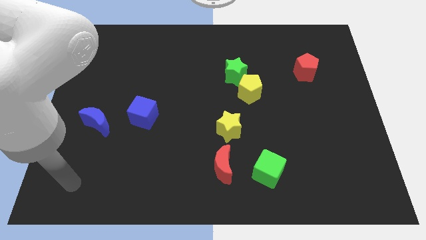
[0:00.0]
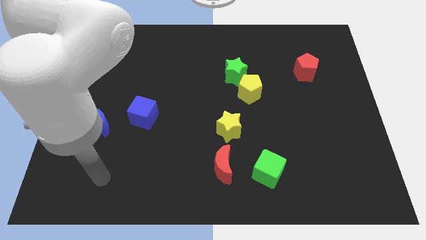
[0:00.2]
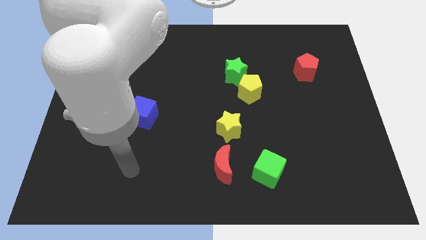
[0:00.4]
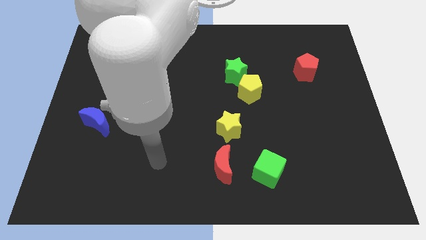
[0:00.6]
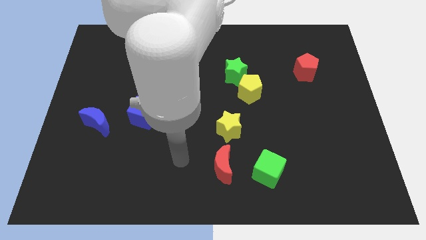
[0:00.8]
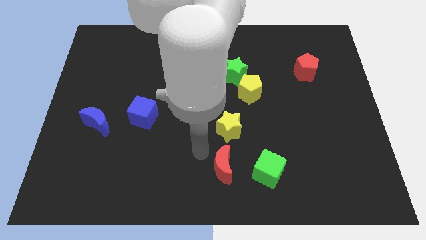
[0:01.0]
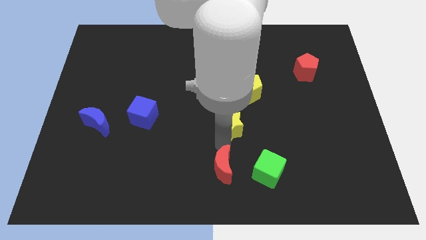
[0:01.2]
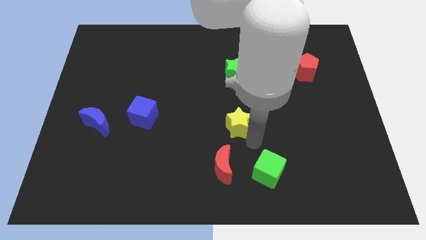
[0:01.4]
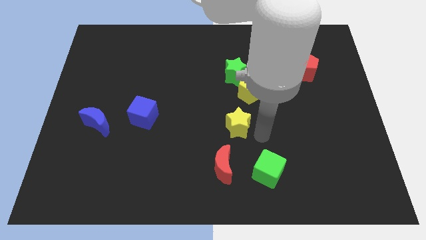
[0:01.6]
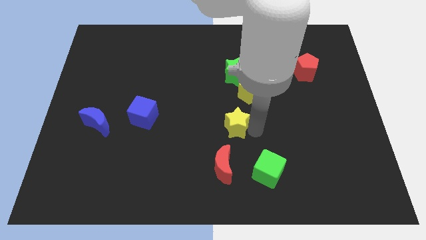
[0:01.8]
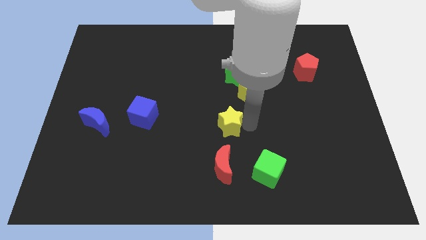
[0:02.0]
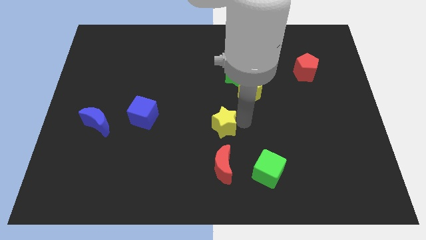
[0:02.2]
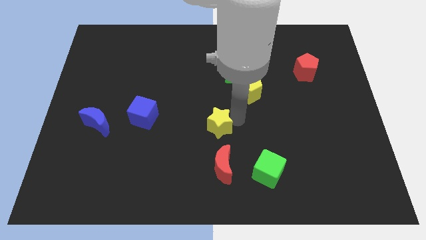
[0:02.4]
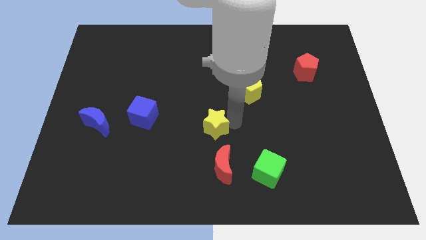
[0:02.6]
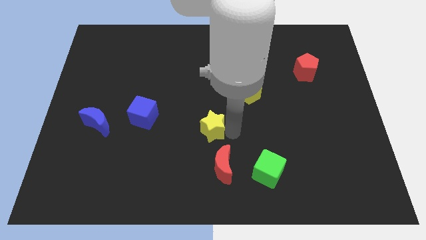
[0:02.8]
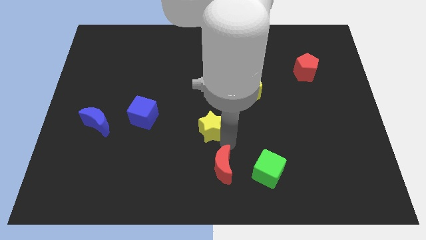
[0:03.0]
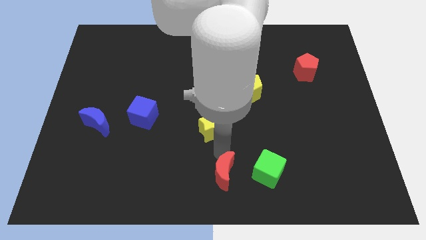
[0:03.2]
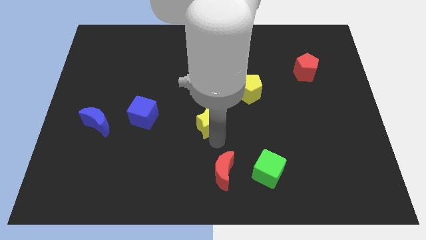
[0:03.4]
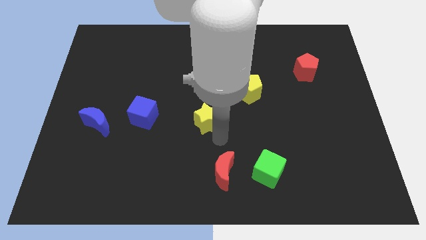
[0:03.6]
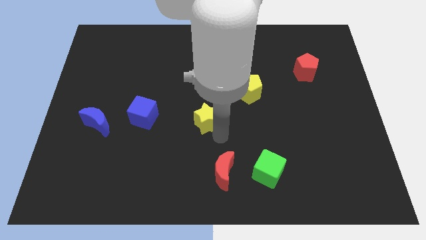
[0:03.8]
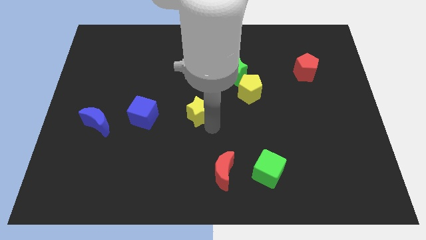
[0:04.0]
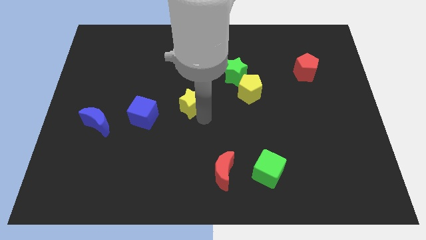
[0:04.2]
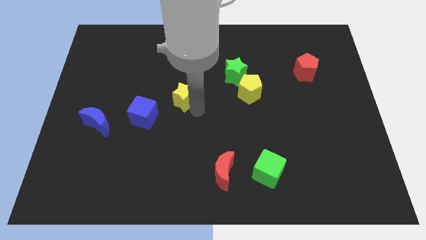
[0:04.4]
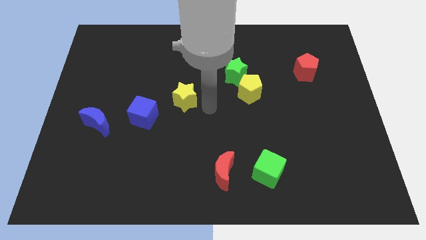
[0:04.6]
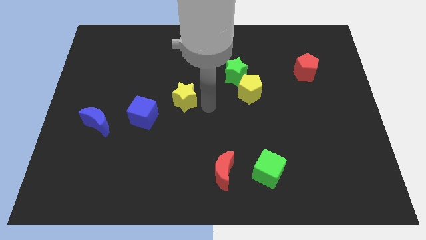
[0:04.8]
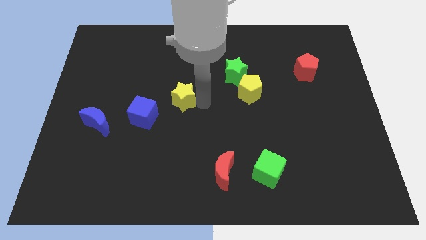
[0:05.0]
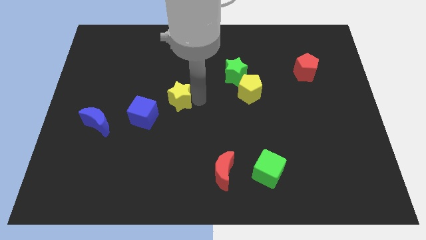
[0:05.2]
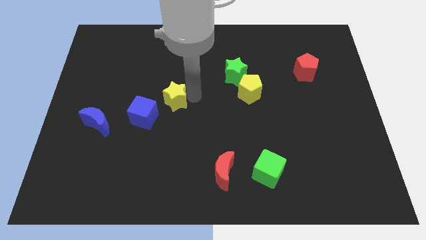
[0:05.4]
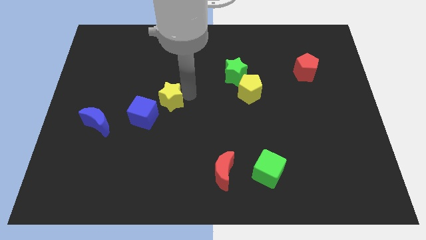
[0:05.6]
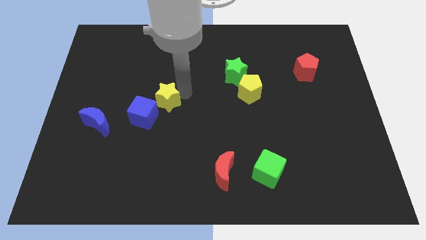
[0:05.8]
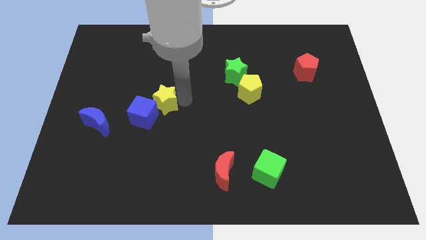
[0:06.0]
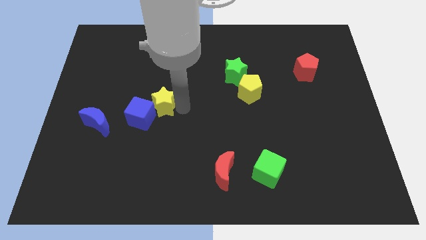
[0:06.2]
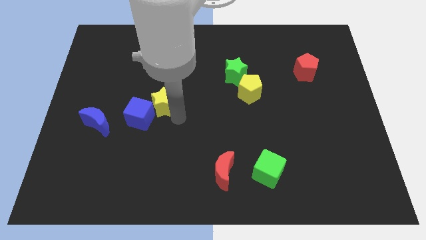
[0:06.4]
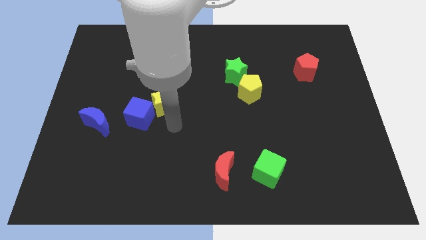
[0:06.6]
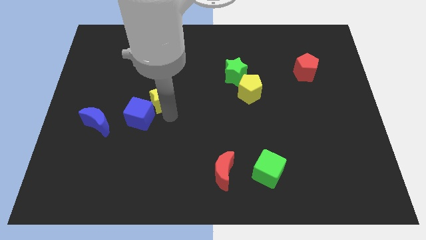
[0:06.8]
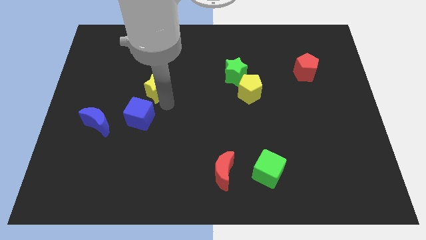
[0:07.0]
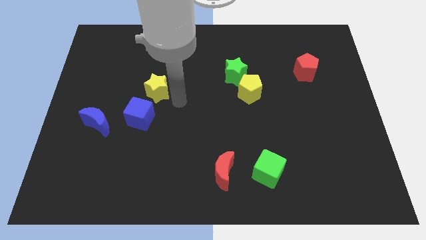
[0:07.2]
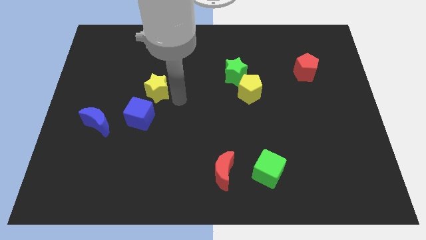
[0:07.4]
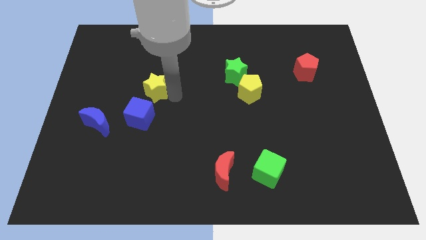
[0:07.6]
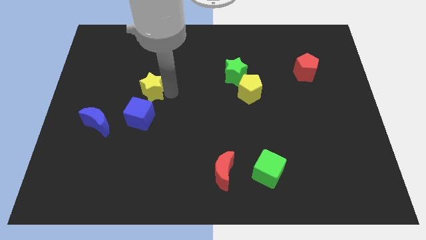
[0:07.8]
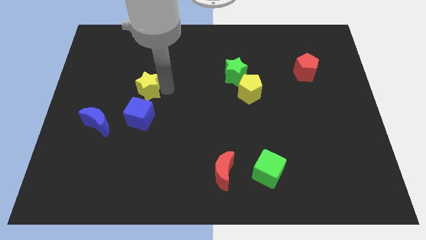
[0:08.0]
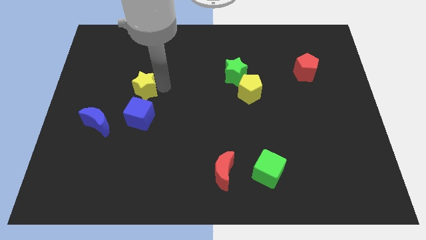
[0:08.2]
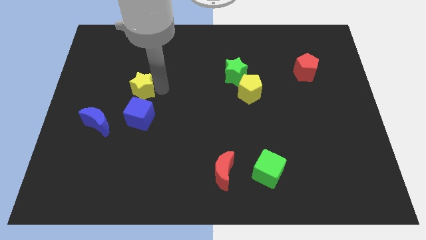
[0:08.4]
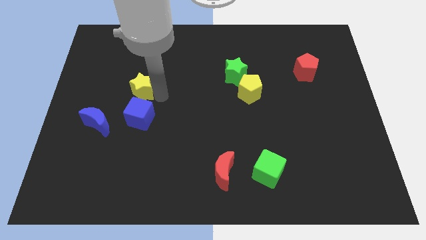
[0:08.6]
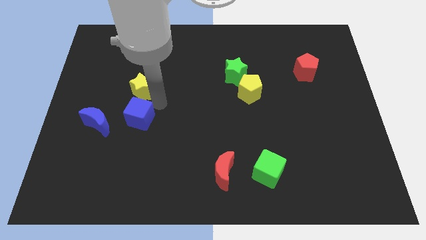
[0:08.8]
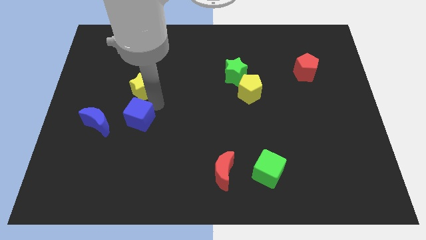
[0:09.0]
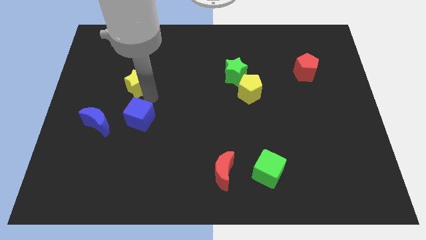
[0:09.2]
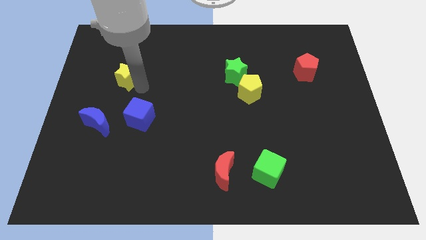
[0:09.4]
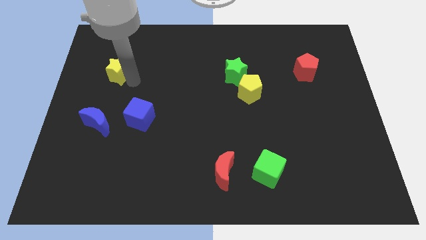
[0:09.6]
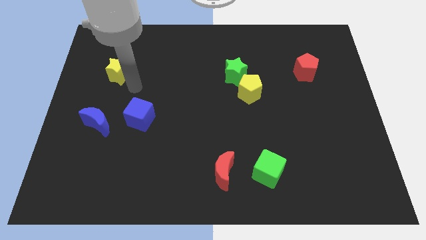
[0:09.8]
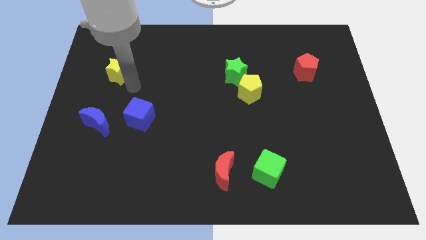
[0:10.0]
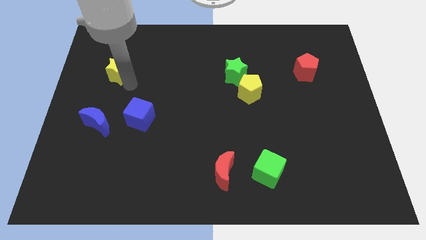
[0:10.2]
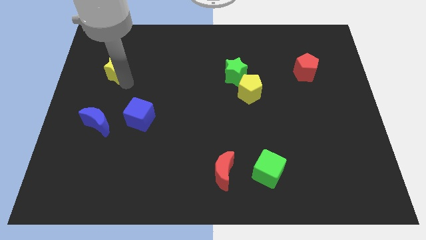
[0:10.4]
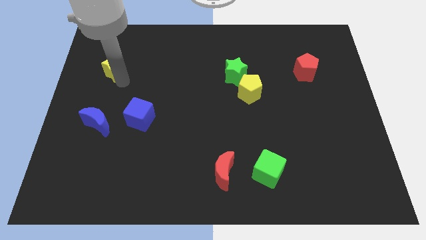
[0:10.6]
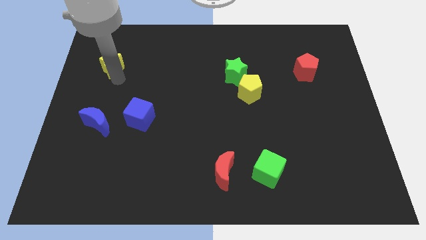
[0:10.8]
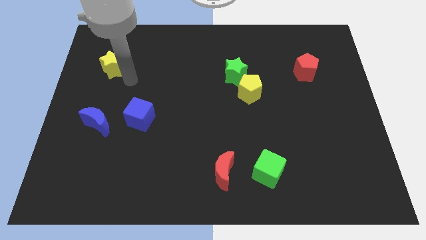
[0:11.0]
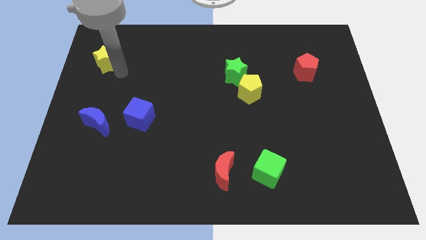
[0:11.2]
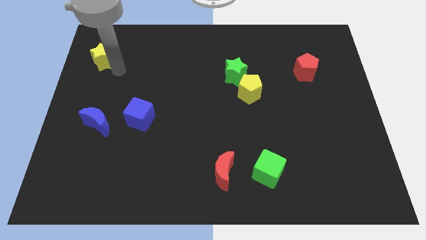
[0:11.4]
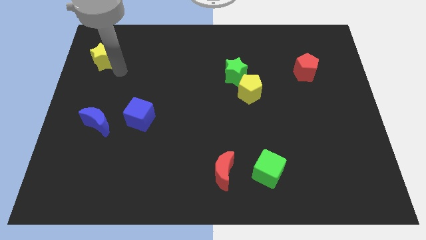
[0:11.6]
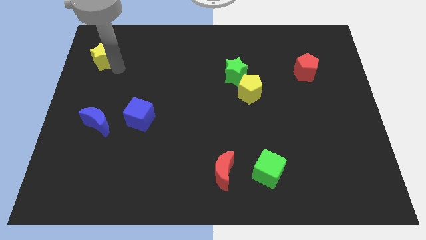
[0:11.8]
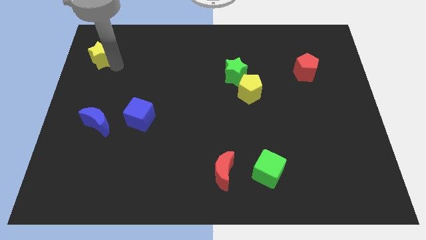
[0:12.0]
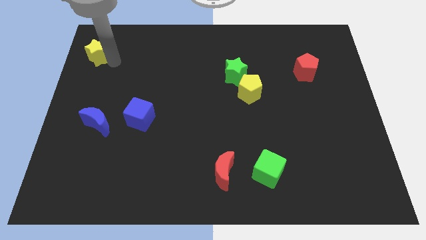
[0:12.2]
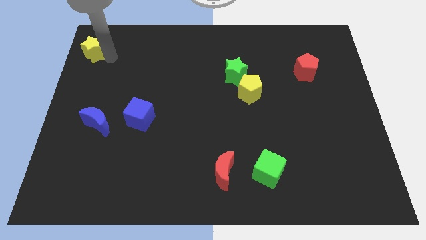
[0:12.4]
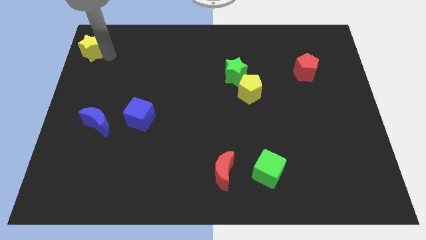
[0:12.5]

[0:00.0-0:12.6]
put the yellow star to the upper left corner

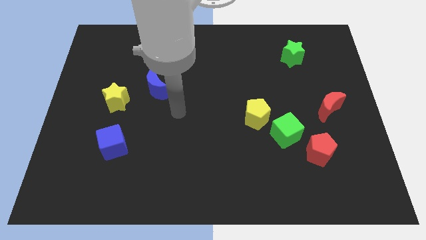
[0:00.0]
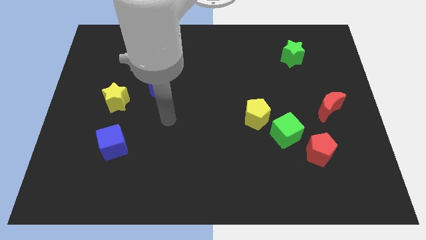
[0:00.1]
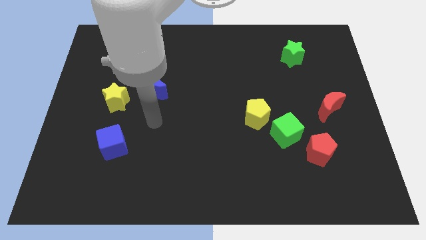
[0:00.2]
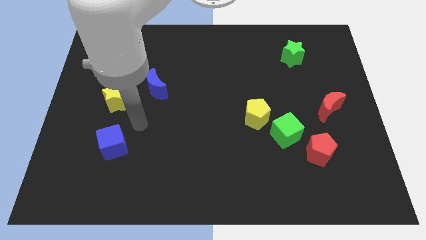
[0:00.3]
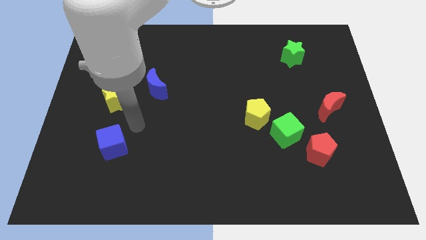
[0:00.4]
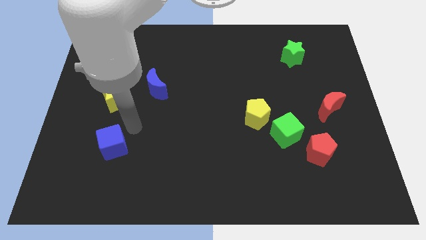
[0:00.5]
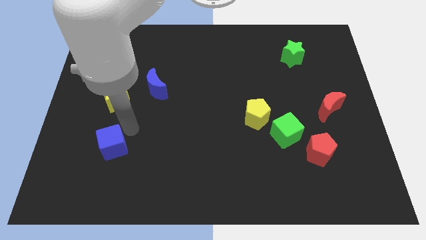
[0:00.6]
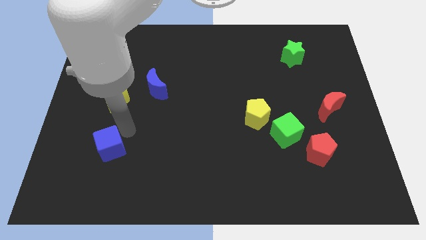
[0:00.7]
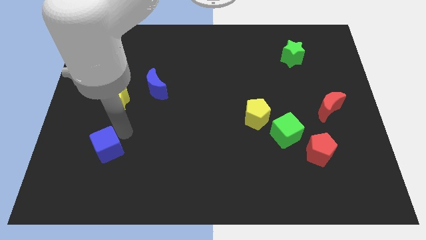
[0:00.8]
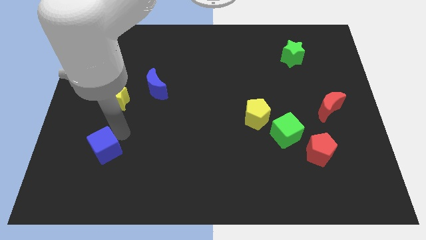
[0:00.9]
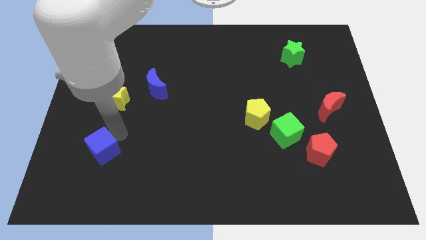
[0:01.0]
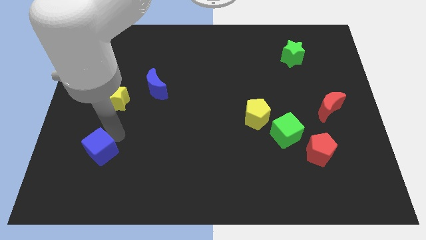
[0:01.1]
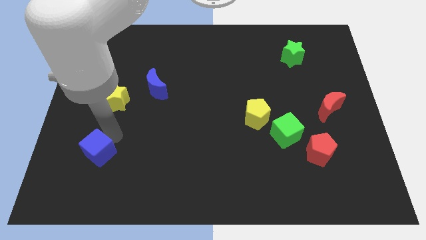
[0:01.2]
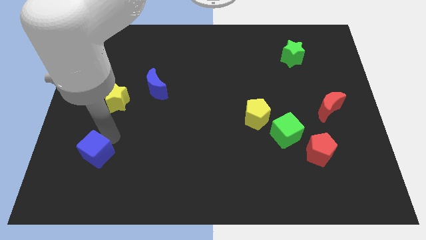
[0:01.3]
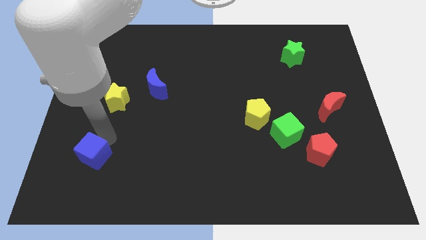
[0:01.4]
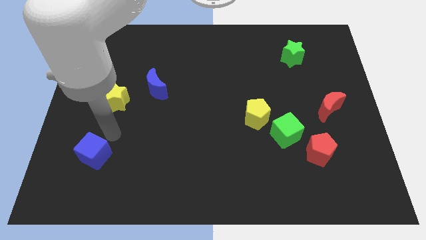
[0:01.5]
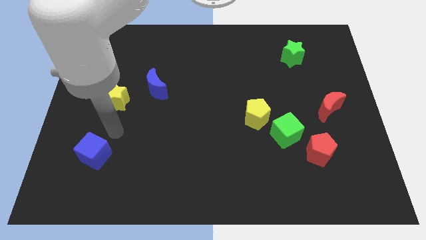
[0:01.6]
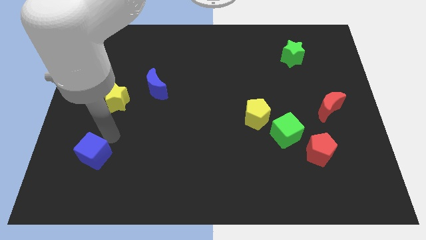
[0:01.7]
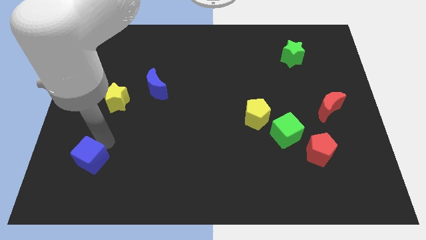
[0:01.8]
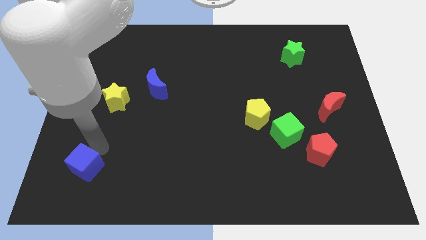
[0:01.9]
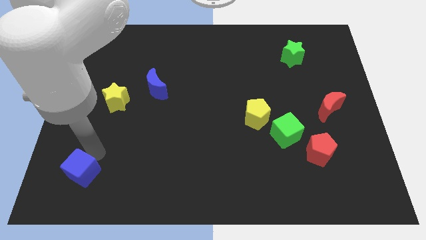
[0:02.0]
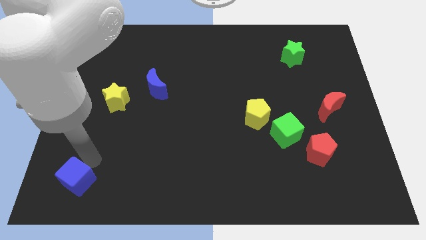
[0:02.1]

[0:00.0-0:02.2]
slide the blue cube to the bottom left of the board
